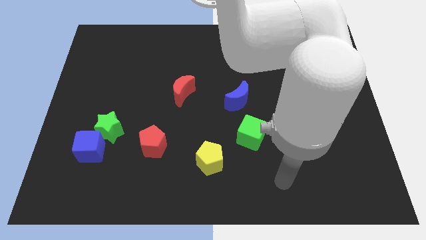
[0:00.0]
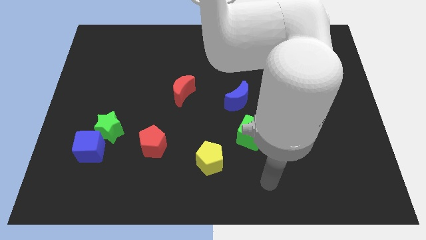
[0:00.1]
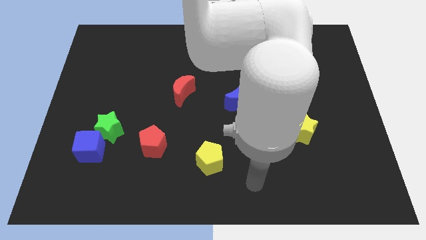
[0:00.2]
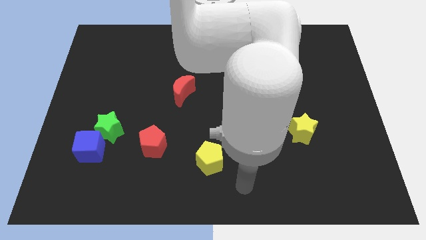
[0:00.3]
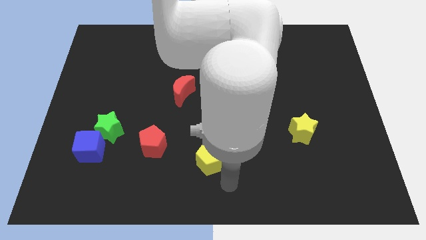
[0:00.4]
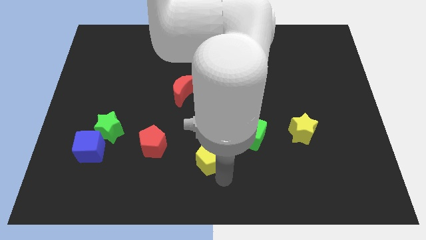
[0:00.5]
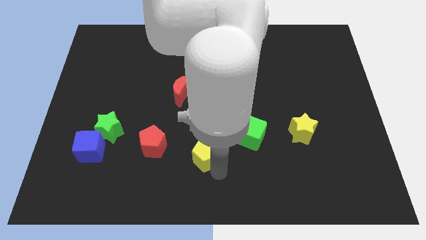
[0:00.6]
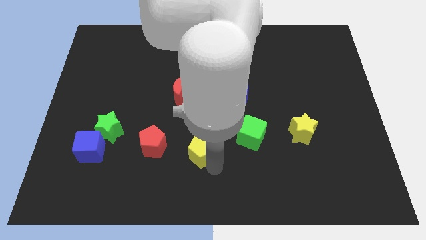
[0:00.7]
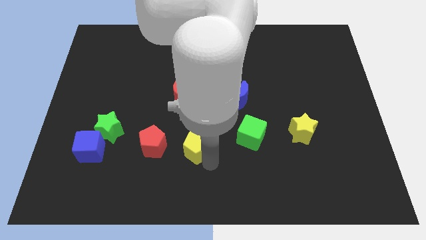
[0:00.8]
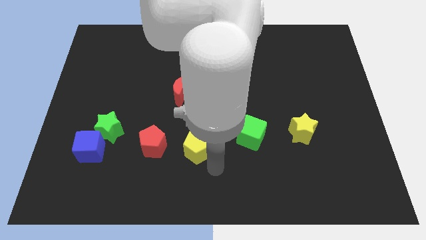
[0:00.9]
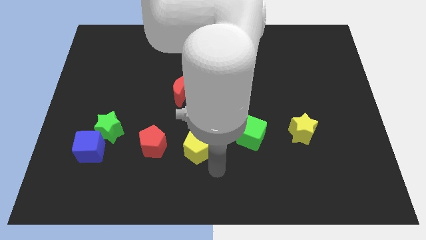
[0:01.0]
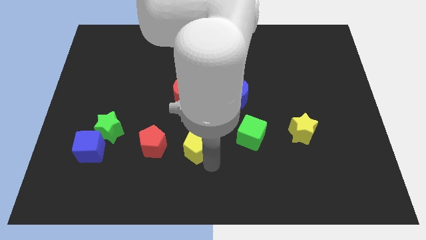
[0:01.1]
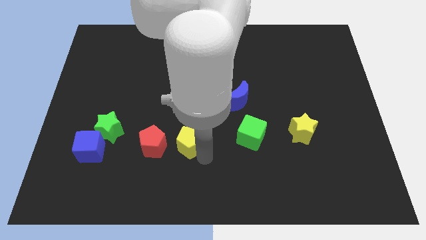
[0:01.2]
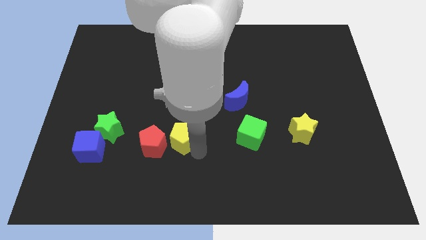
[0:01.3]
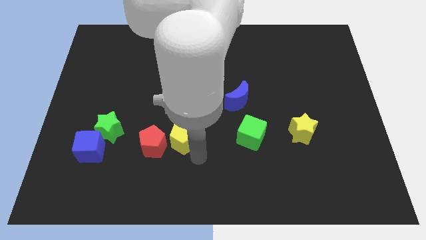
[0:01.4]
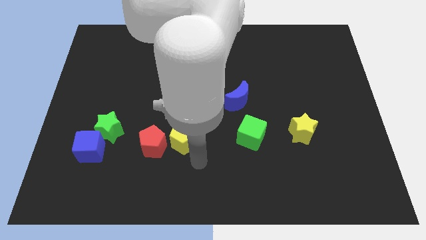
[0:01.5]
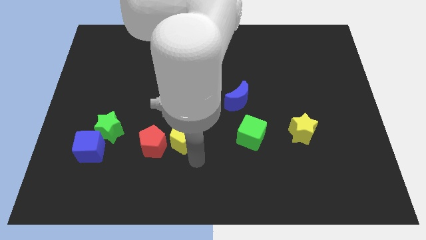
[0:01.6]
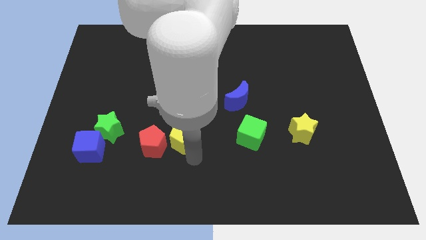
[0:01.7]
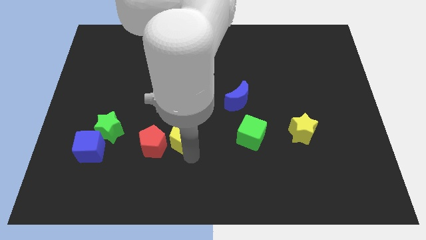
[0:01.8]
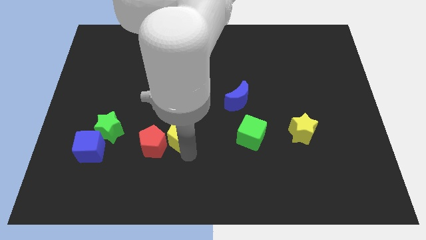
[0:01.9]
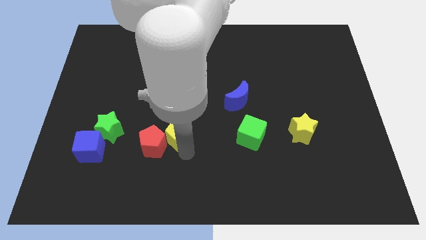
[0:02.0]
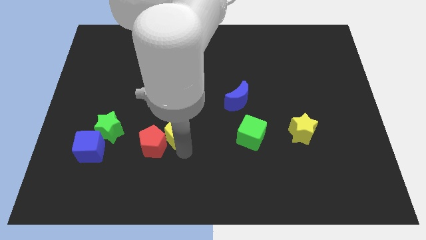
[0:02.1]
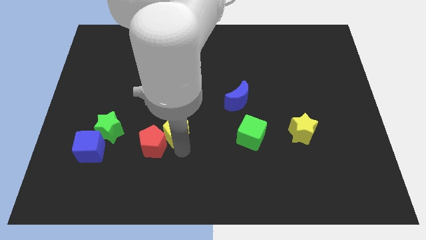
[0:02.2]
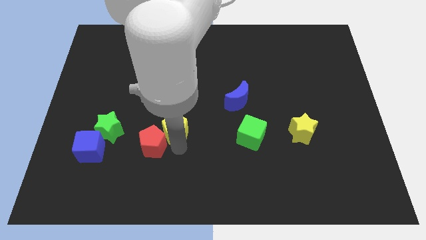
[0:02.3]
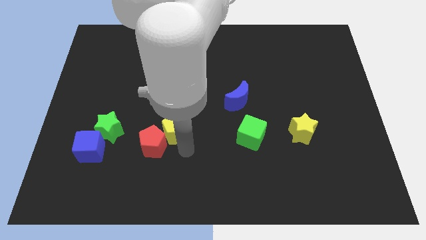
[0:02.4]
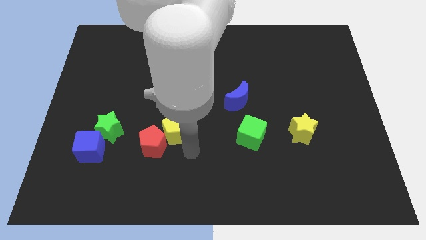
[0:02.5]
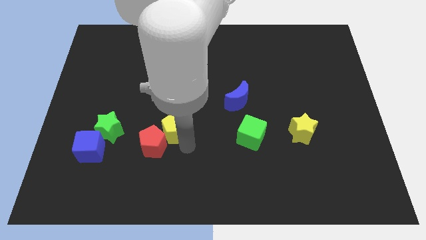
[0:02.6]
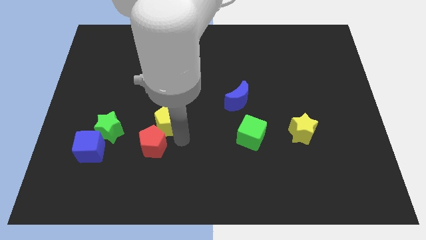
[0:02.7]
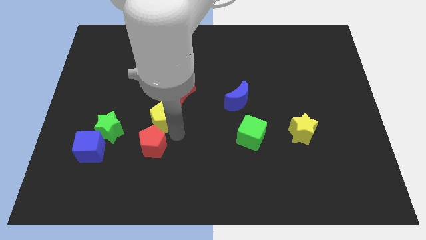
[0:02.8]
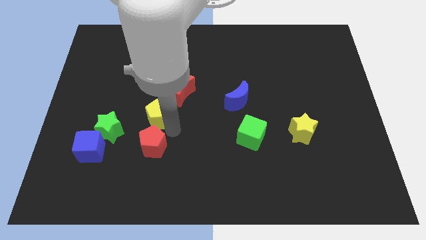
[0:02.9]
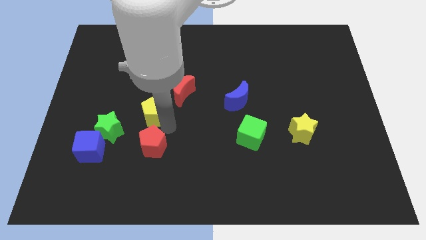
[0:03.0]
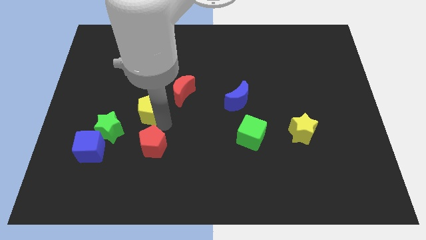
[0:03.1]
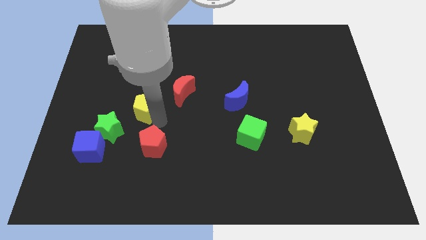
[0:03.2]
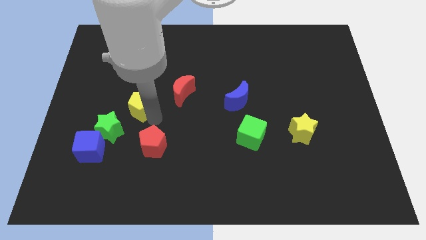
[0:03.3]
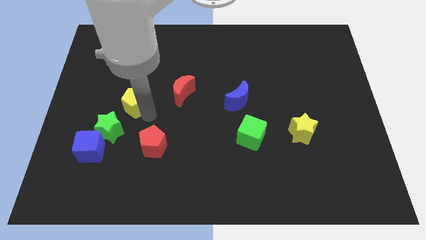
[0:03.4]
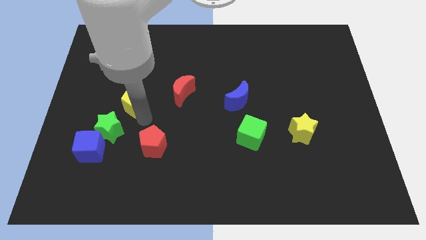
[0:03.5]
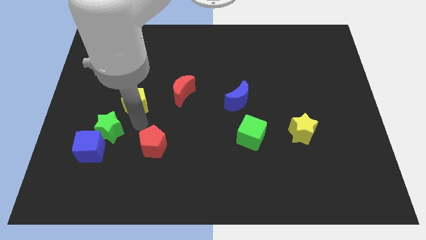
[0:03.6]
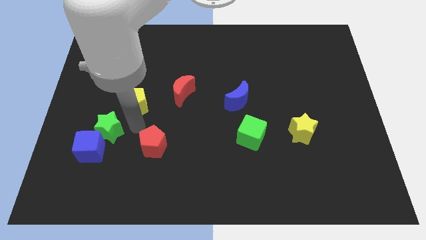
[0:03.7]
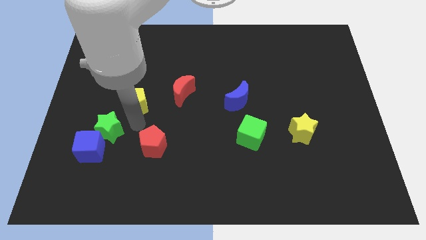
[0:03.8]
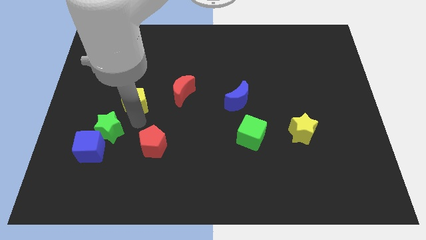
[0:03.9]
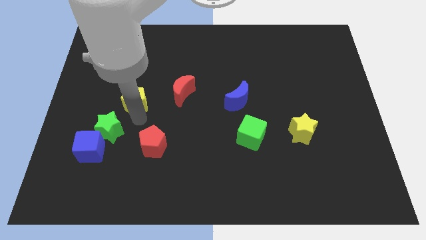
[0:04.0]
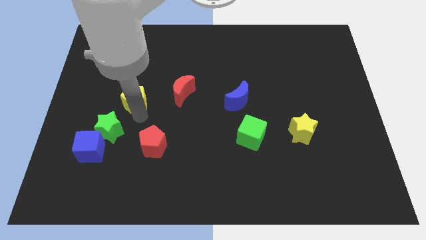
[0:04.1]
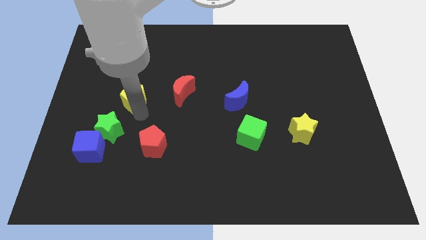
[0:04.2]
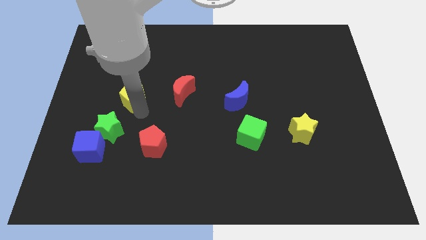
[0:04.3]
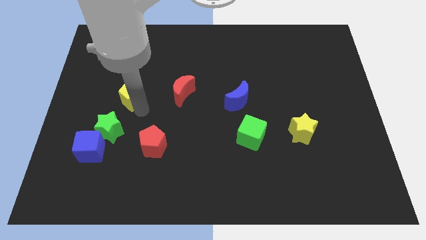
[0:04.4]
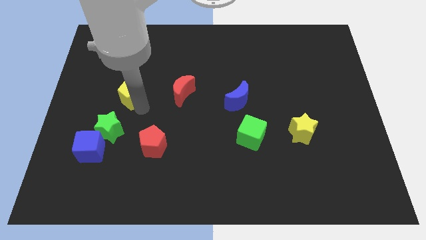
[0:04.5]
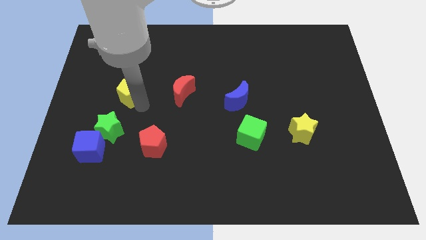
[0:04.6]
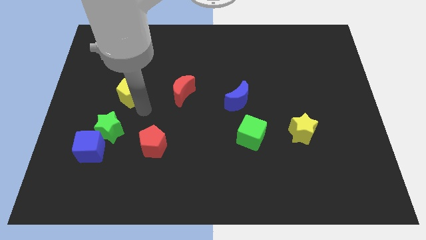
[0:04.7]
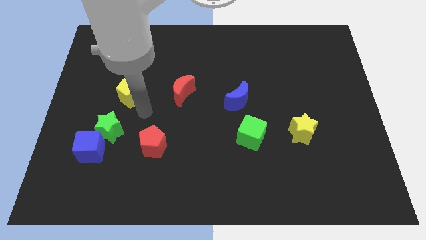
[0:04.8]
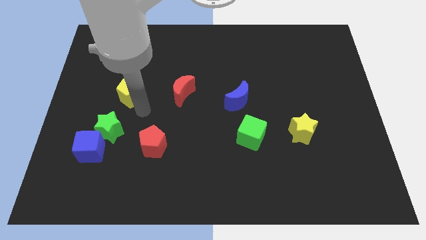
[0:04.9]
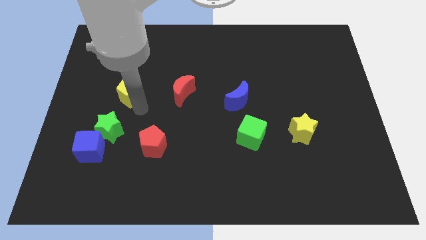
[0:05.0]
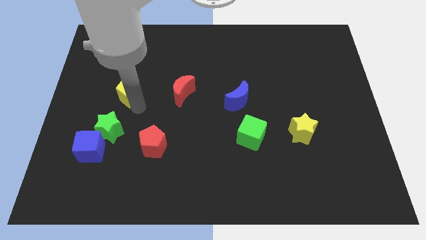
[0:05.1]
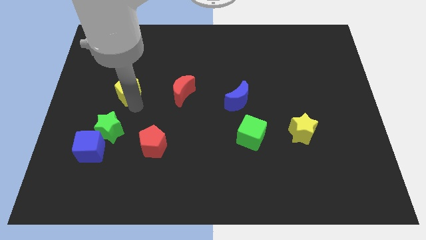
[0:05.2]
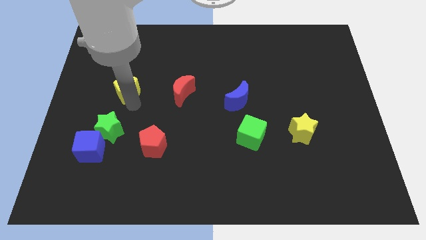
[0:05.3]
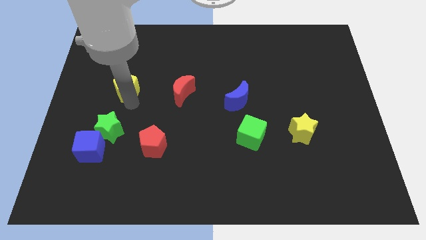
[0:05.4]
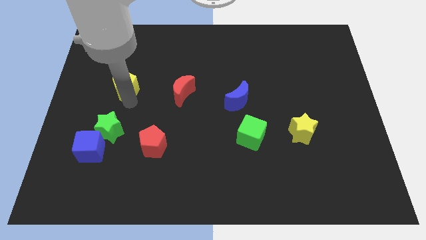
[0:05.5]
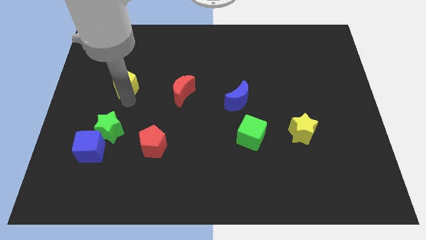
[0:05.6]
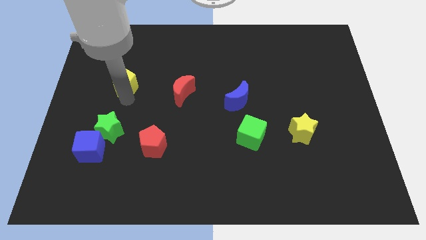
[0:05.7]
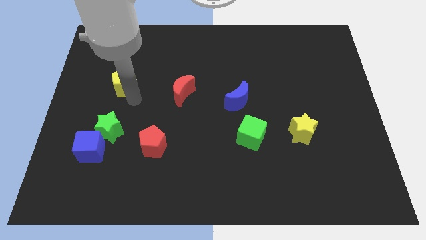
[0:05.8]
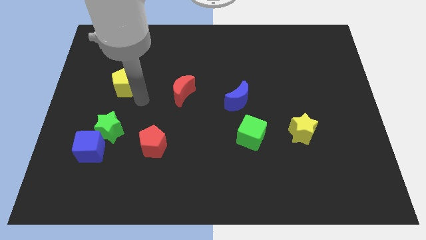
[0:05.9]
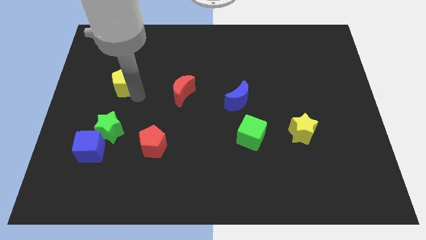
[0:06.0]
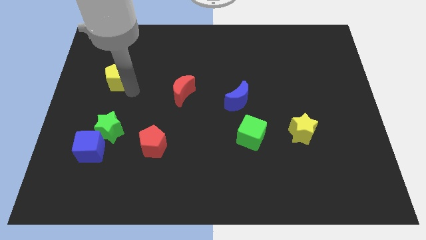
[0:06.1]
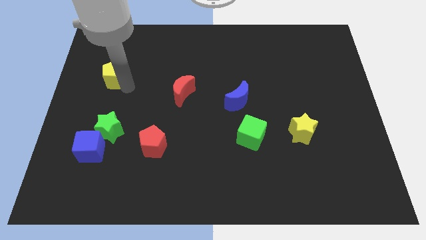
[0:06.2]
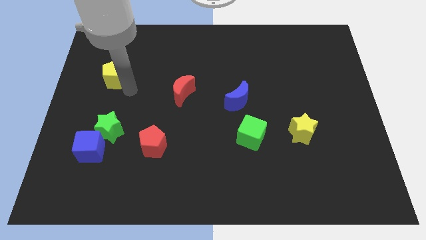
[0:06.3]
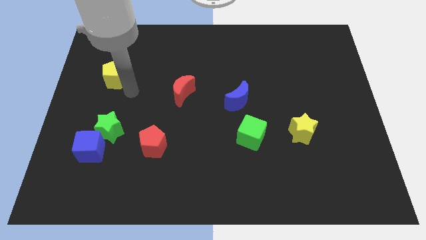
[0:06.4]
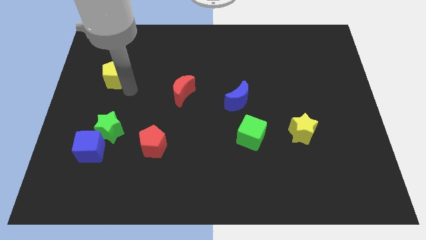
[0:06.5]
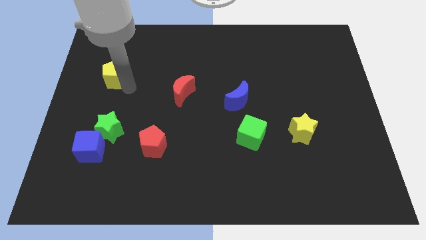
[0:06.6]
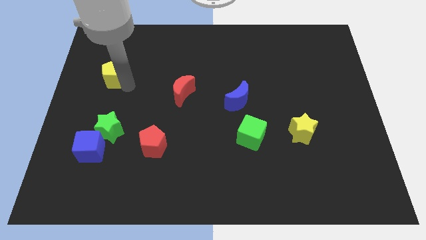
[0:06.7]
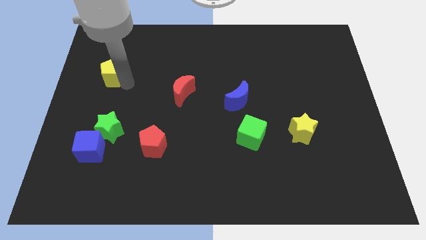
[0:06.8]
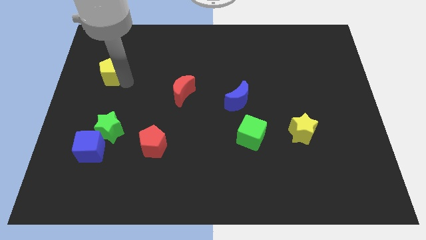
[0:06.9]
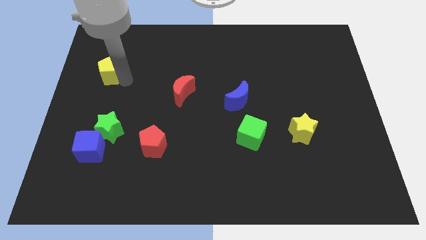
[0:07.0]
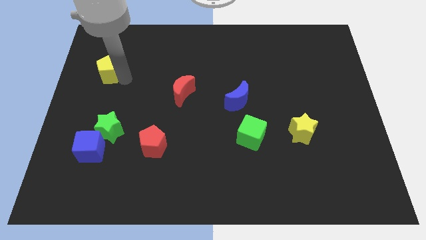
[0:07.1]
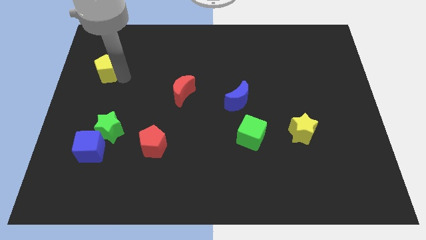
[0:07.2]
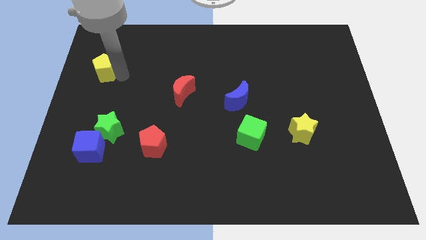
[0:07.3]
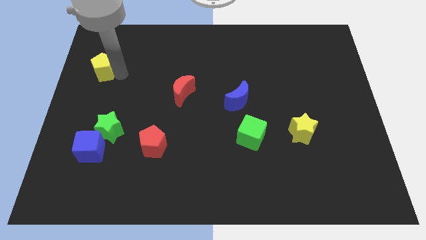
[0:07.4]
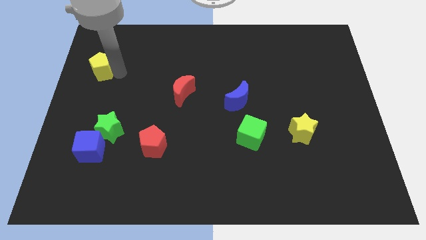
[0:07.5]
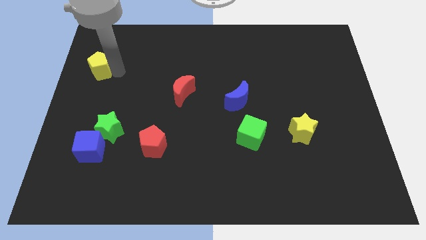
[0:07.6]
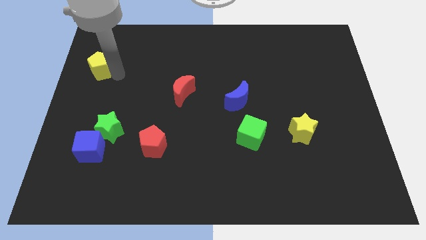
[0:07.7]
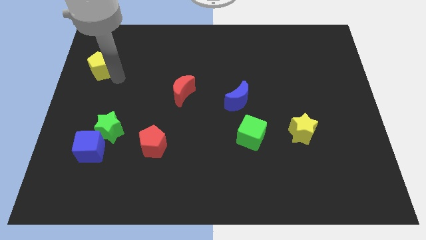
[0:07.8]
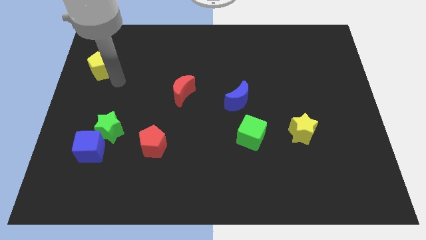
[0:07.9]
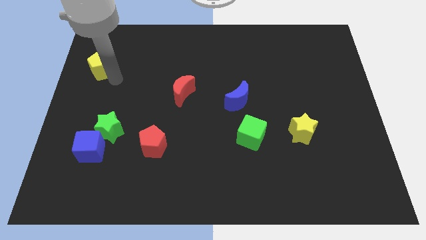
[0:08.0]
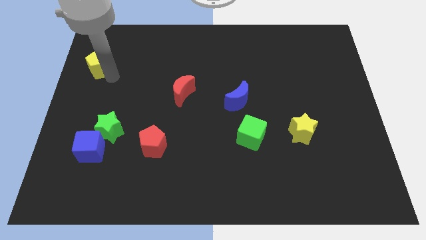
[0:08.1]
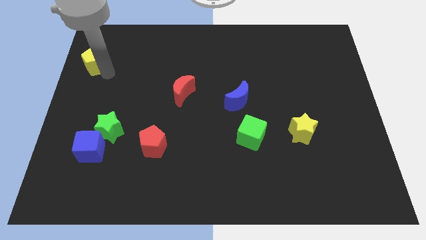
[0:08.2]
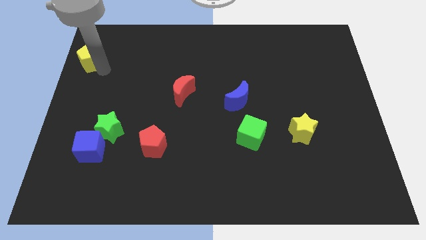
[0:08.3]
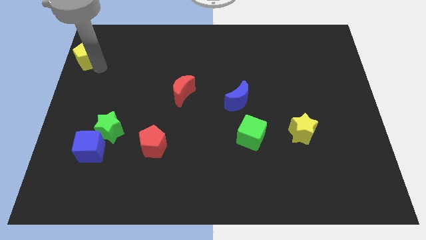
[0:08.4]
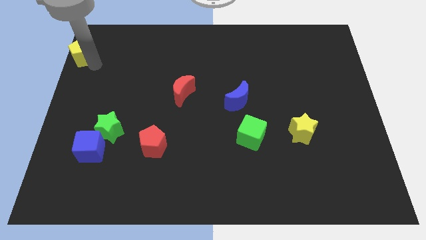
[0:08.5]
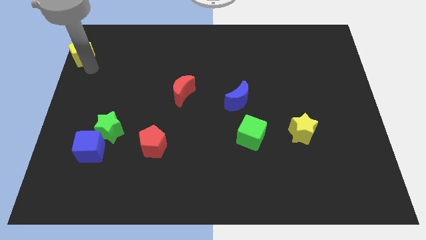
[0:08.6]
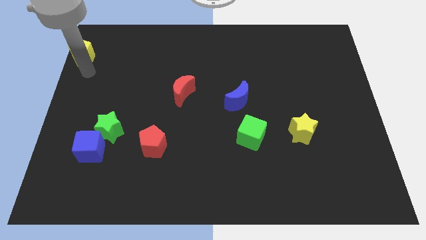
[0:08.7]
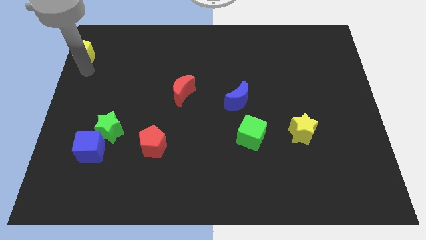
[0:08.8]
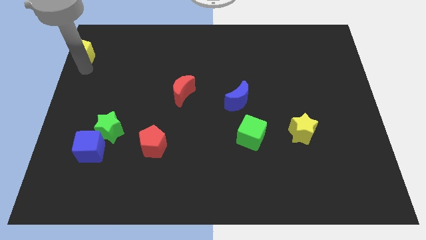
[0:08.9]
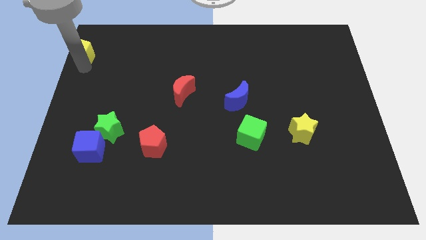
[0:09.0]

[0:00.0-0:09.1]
slide the yellow pentagon to the top left of the board
